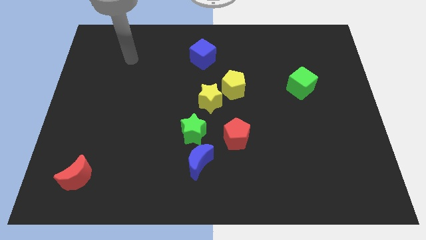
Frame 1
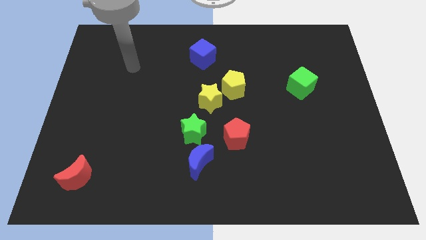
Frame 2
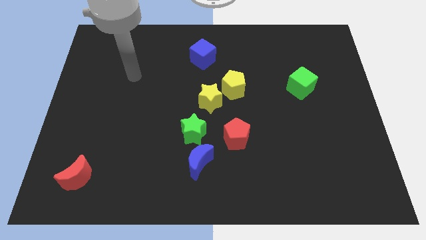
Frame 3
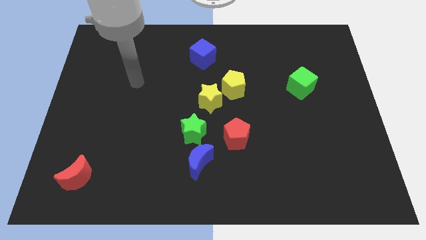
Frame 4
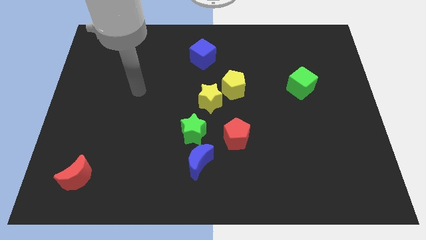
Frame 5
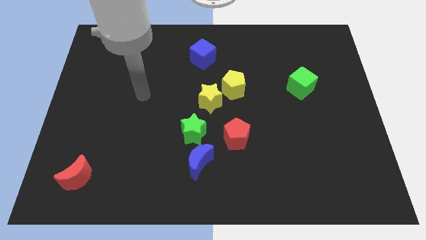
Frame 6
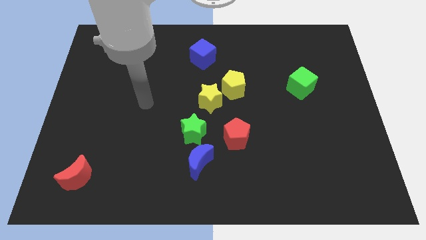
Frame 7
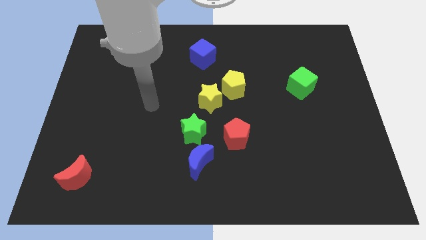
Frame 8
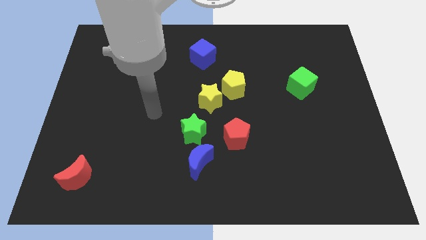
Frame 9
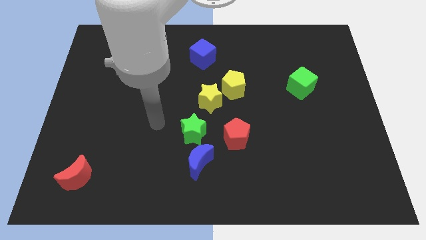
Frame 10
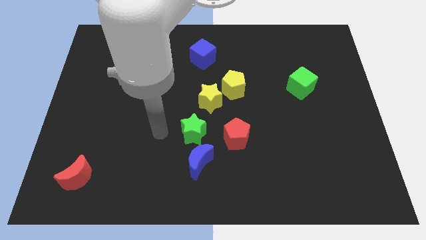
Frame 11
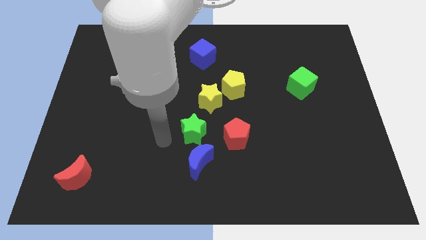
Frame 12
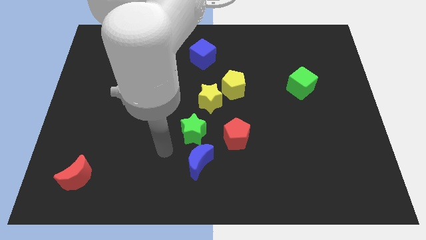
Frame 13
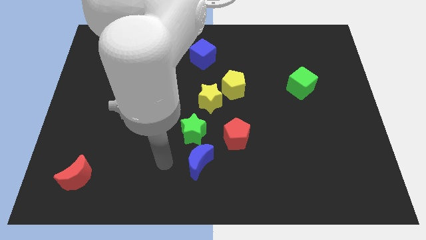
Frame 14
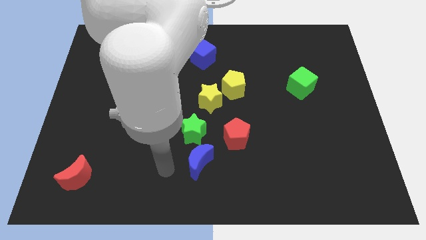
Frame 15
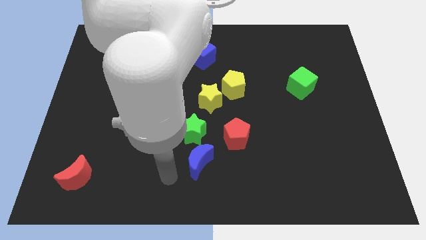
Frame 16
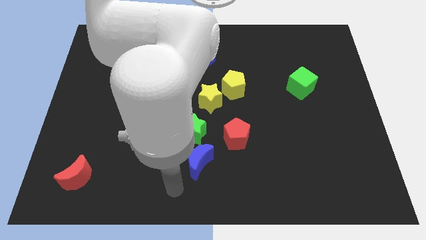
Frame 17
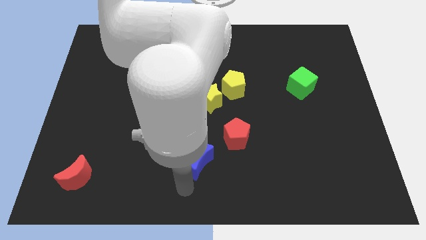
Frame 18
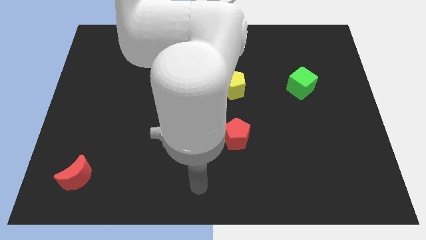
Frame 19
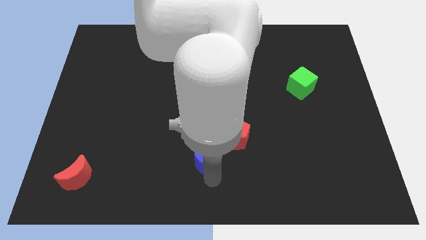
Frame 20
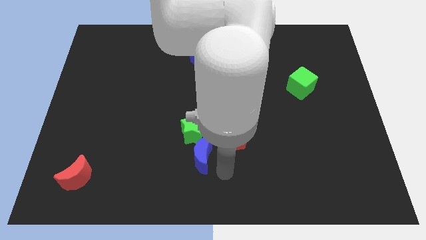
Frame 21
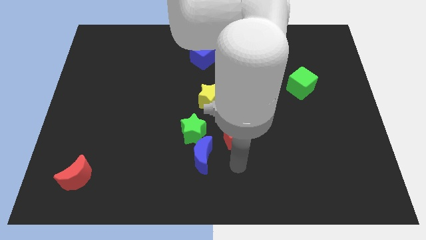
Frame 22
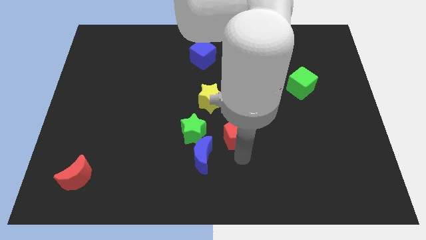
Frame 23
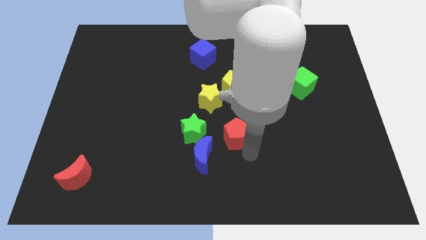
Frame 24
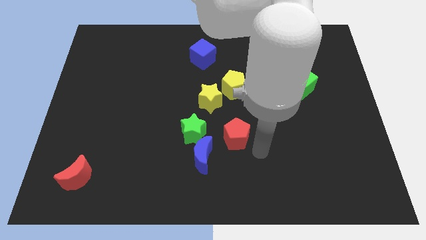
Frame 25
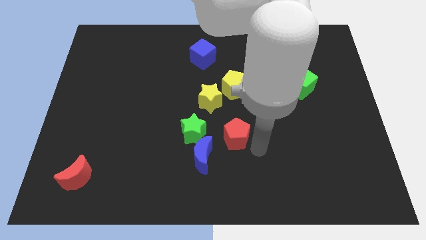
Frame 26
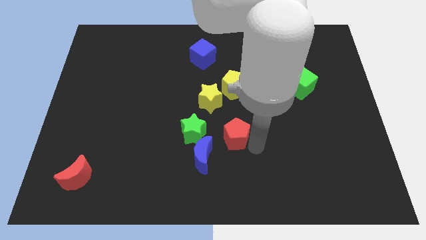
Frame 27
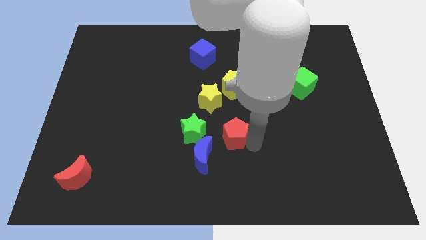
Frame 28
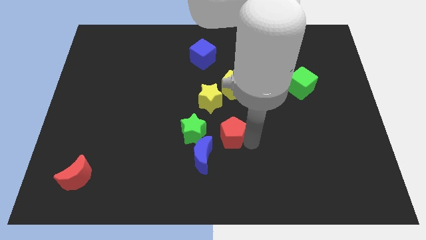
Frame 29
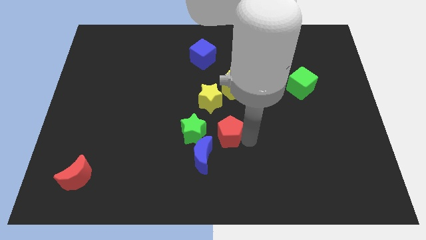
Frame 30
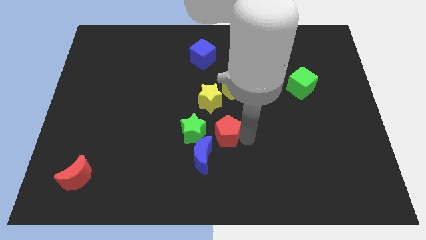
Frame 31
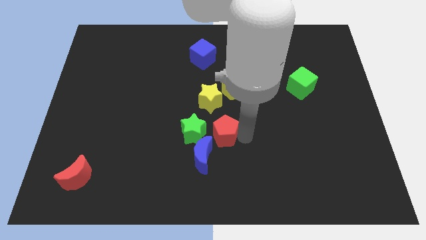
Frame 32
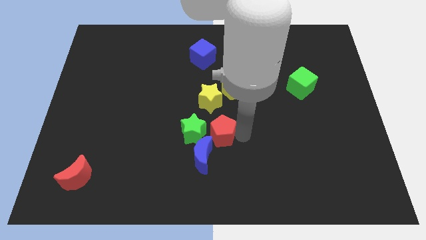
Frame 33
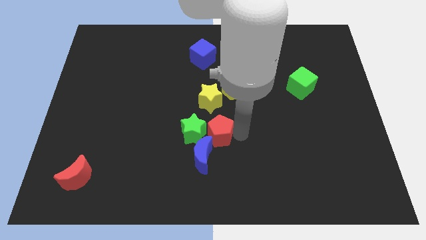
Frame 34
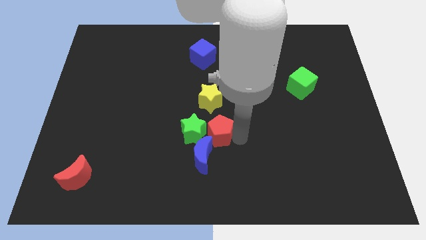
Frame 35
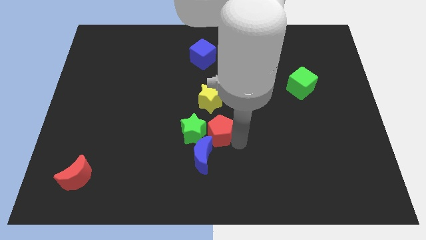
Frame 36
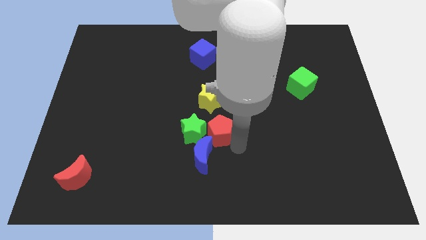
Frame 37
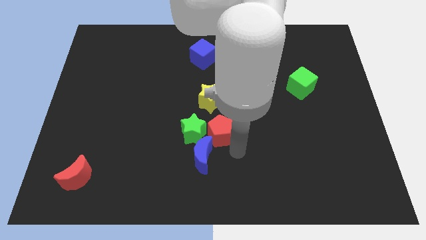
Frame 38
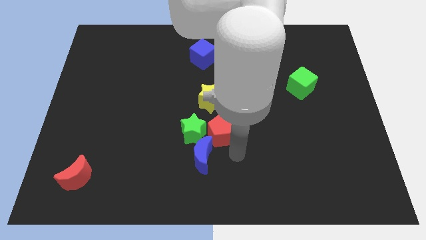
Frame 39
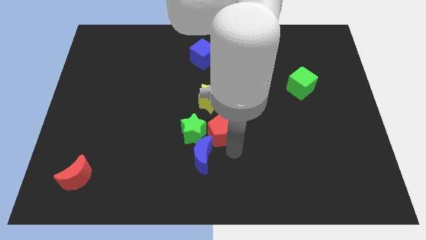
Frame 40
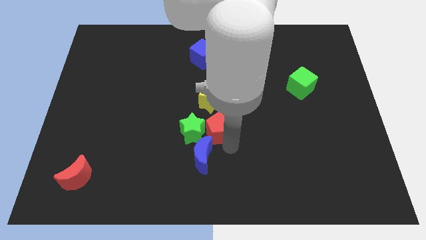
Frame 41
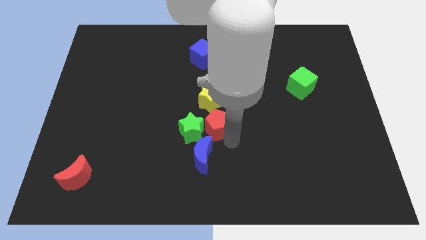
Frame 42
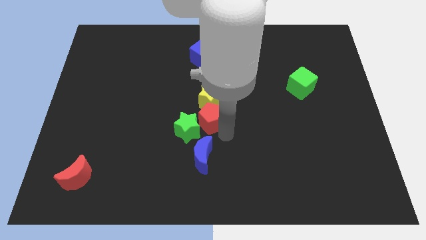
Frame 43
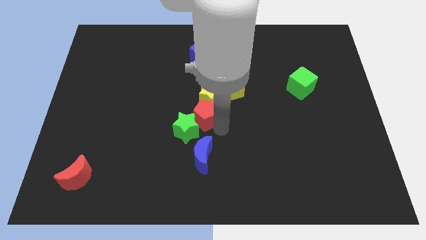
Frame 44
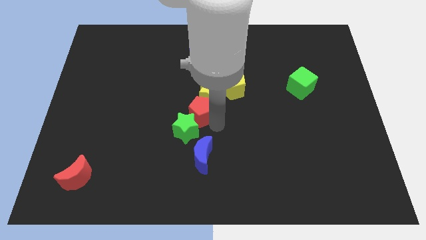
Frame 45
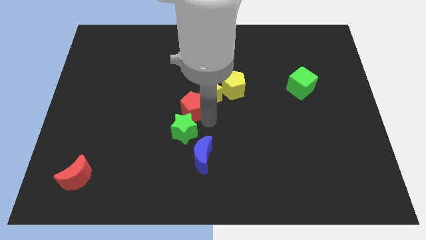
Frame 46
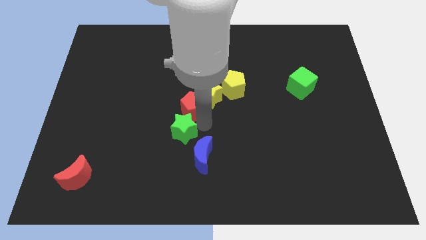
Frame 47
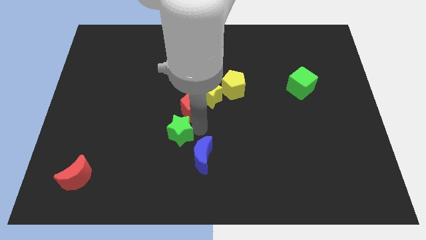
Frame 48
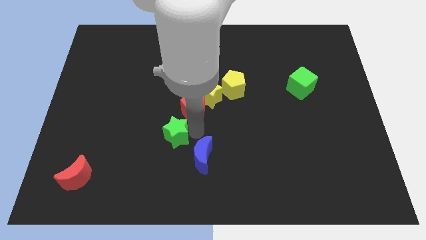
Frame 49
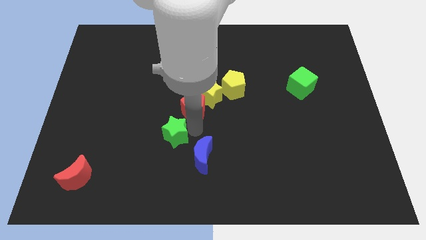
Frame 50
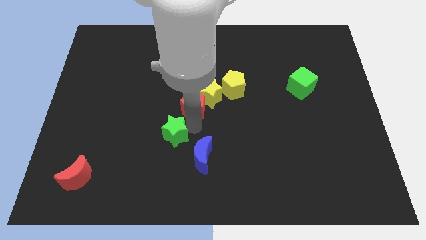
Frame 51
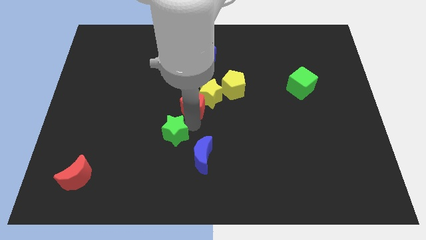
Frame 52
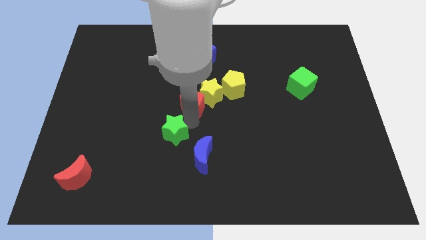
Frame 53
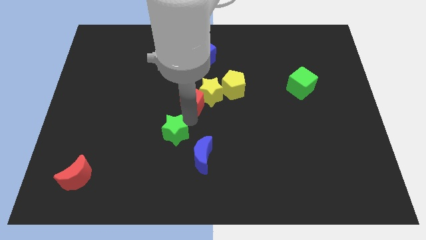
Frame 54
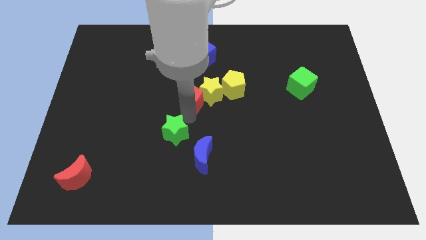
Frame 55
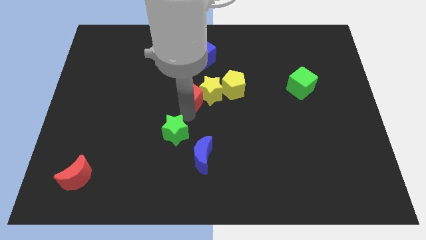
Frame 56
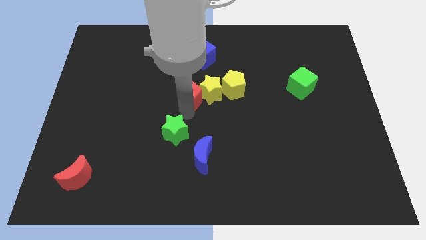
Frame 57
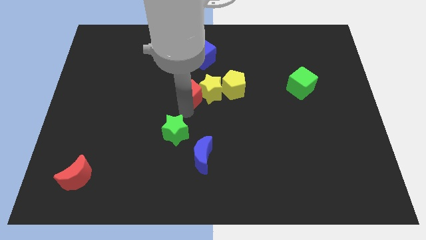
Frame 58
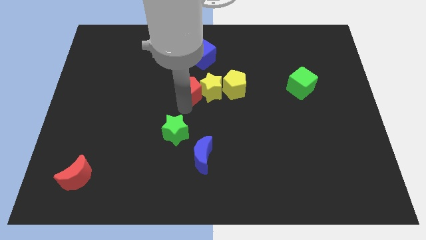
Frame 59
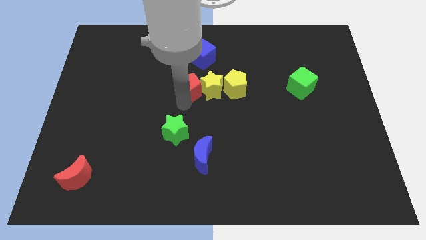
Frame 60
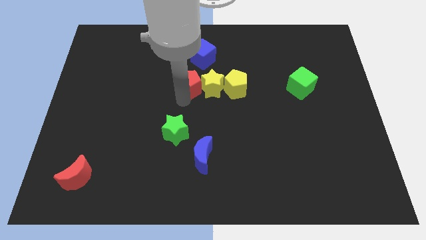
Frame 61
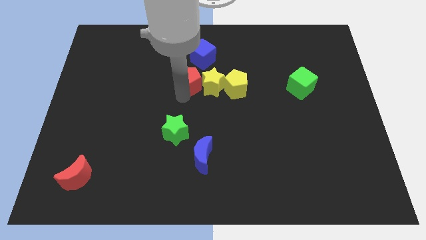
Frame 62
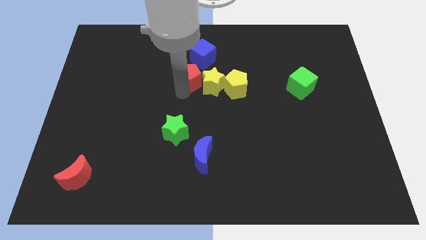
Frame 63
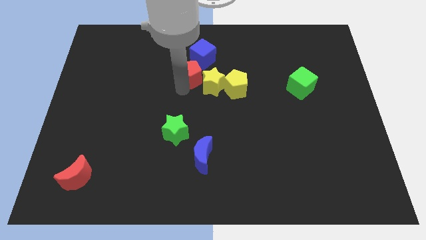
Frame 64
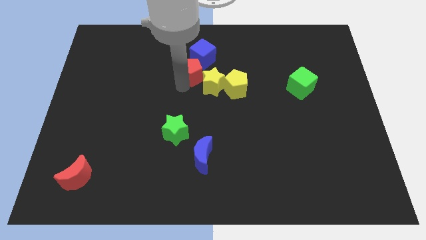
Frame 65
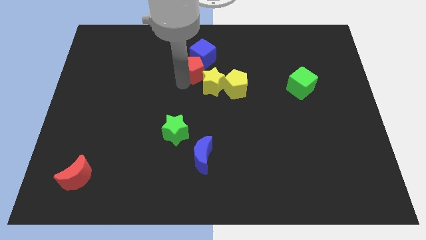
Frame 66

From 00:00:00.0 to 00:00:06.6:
push the red pentagon above the yellow star
